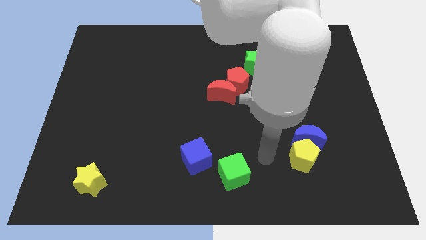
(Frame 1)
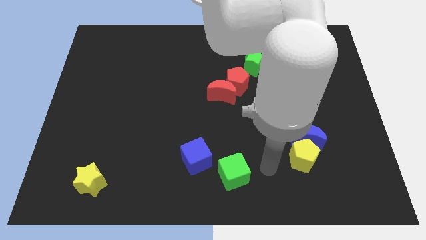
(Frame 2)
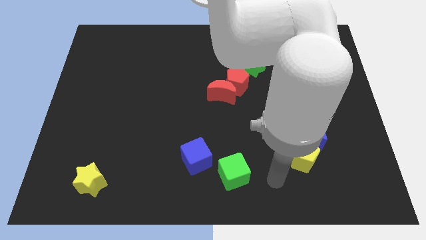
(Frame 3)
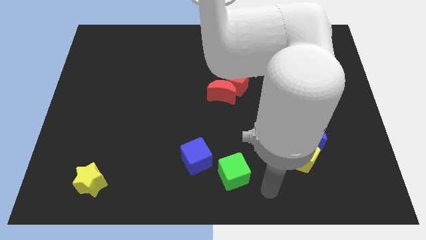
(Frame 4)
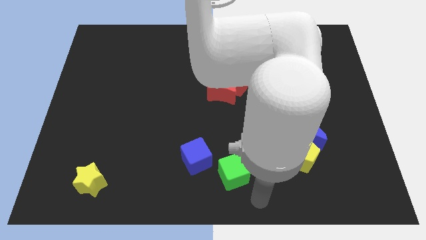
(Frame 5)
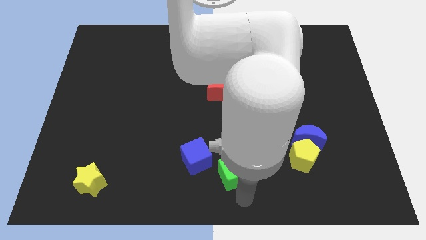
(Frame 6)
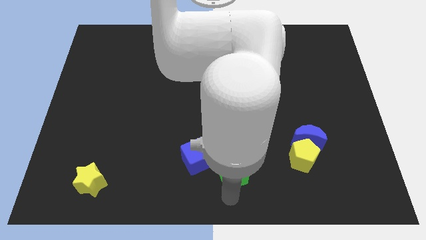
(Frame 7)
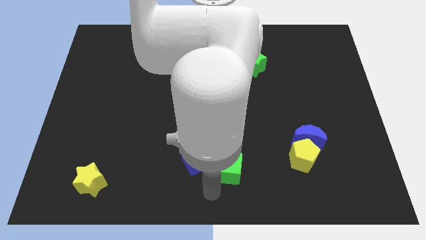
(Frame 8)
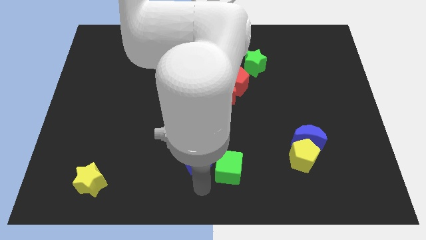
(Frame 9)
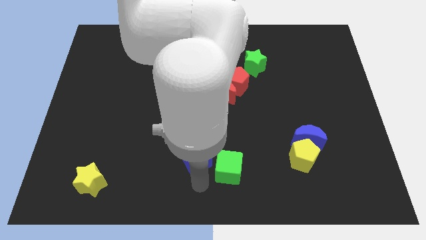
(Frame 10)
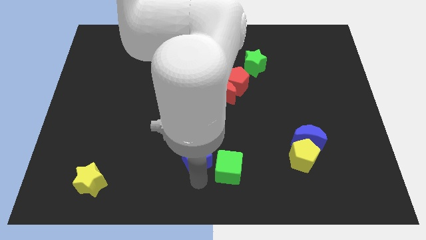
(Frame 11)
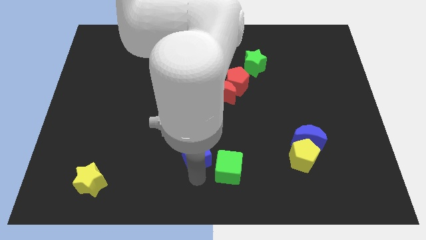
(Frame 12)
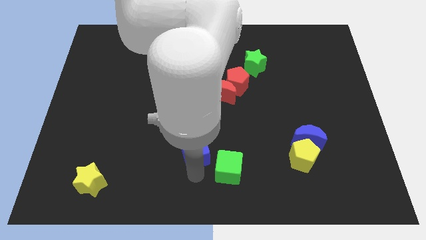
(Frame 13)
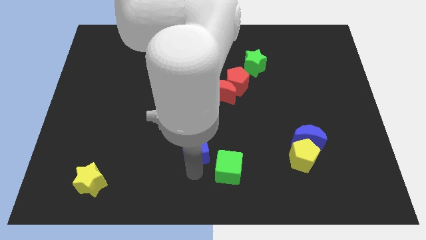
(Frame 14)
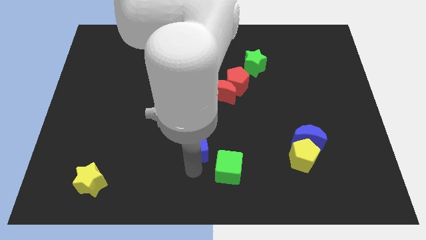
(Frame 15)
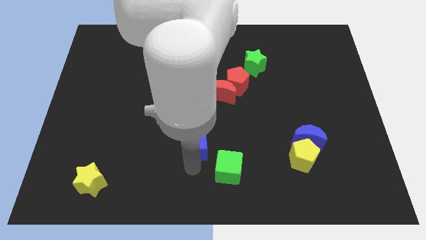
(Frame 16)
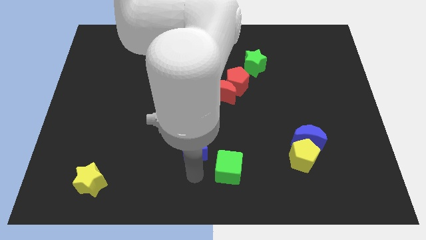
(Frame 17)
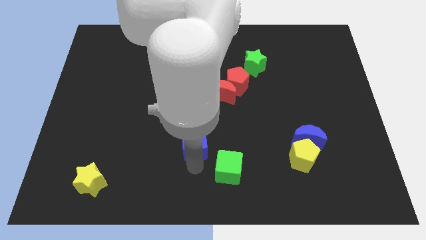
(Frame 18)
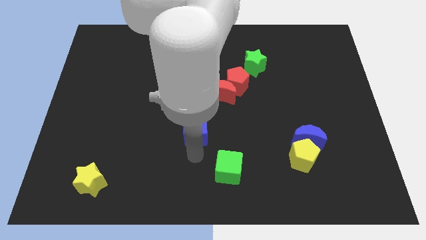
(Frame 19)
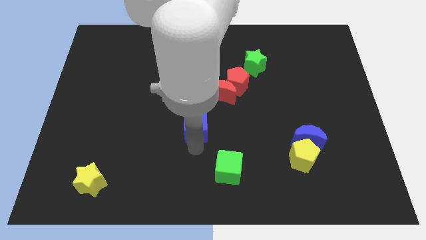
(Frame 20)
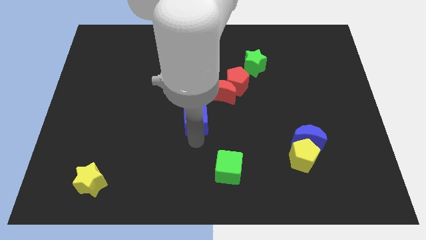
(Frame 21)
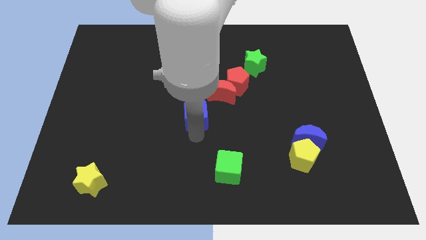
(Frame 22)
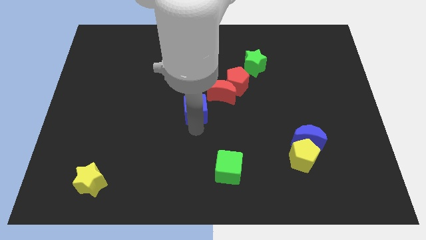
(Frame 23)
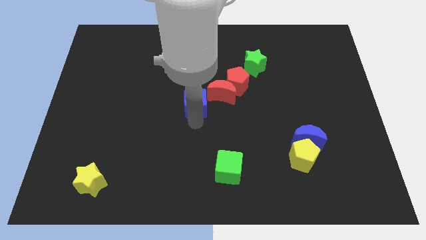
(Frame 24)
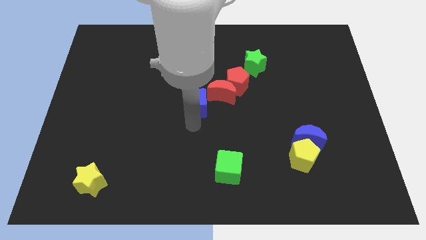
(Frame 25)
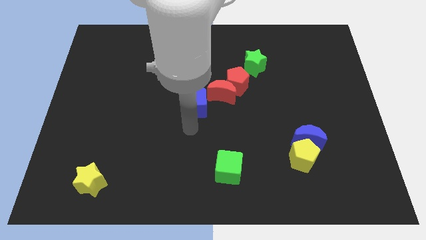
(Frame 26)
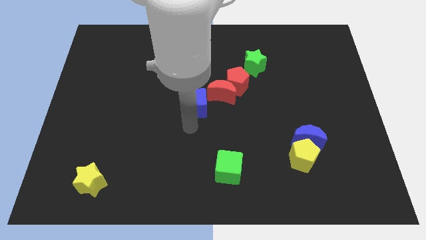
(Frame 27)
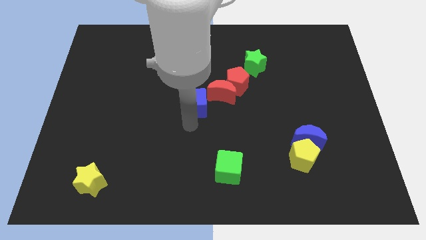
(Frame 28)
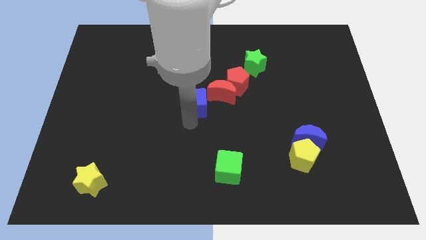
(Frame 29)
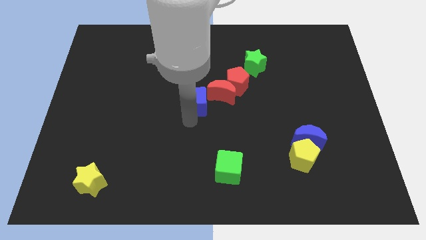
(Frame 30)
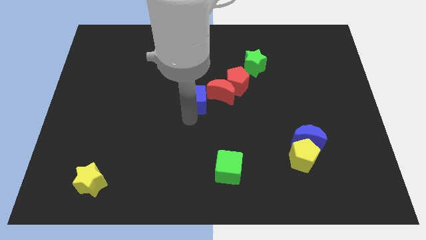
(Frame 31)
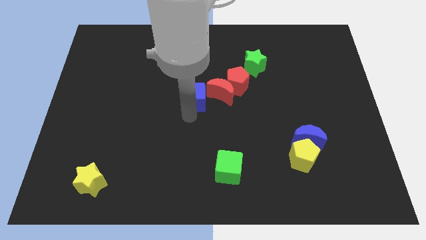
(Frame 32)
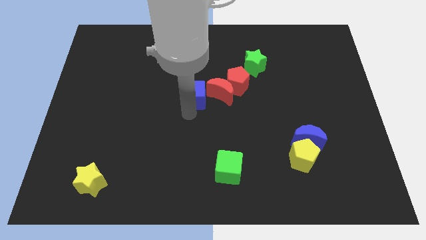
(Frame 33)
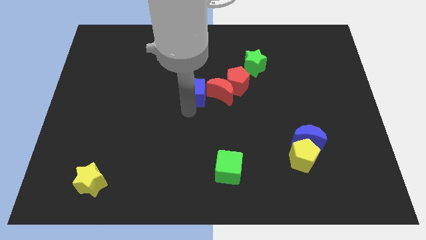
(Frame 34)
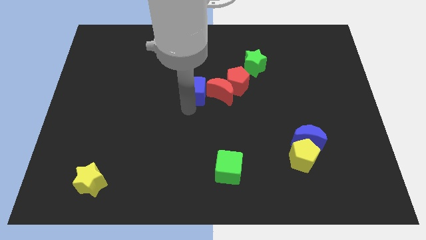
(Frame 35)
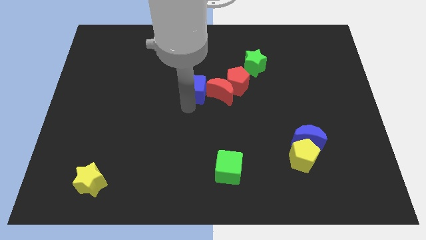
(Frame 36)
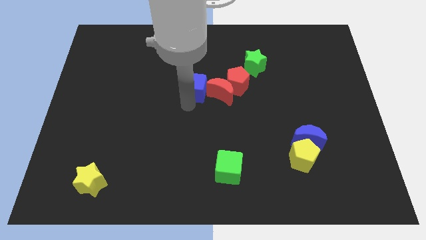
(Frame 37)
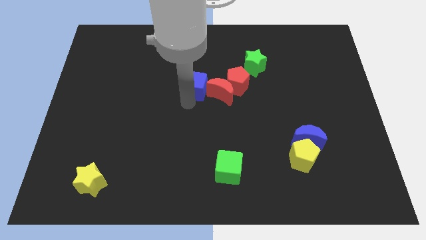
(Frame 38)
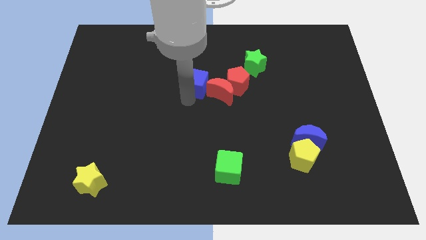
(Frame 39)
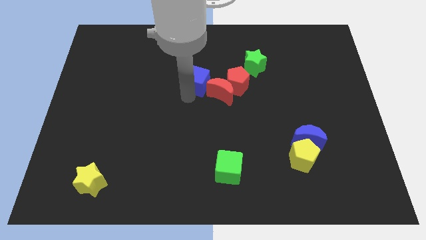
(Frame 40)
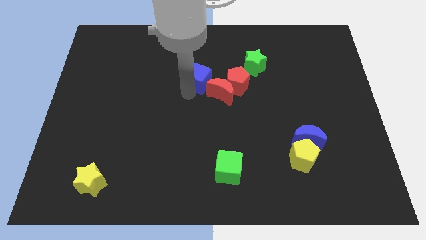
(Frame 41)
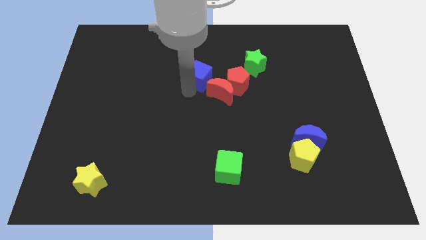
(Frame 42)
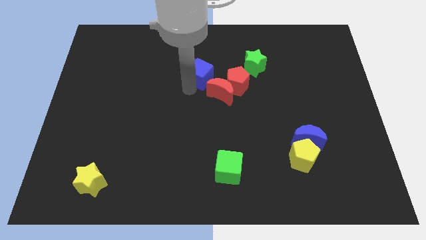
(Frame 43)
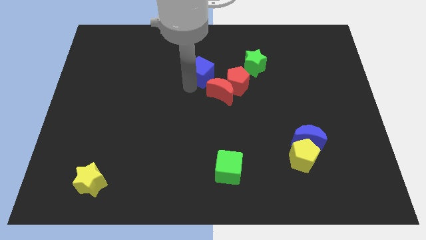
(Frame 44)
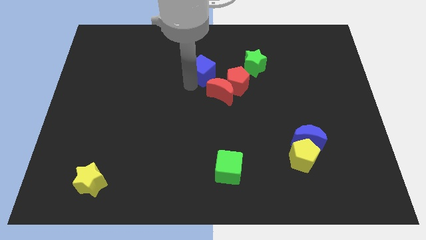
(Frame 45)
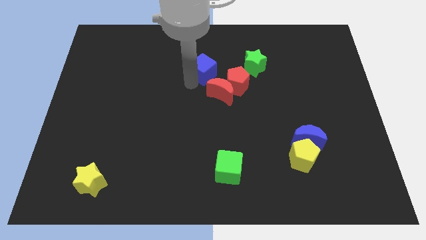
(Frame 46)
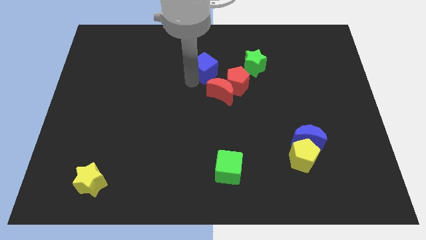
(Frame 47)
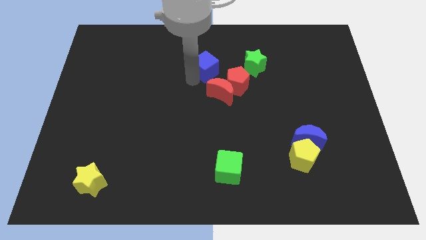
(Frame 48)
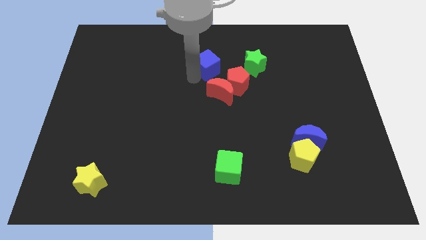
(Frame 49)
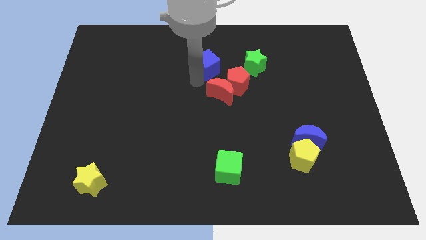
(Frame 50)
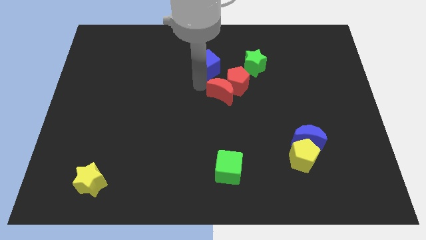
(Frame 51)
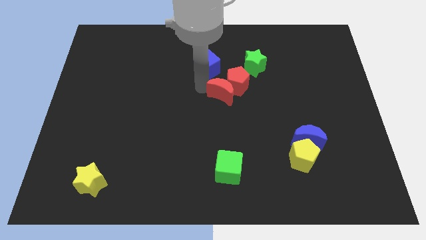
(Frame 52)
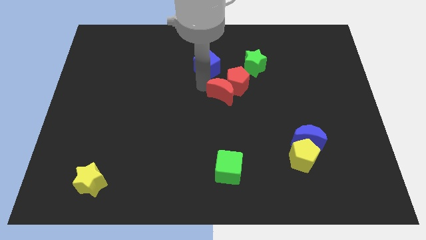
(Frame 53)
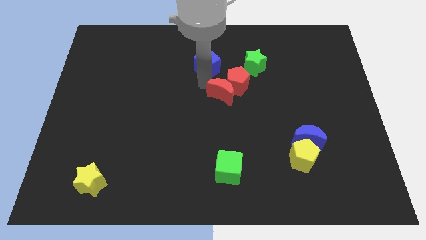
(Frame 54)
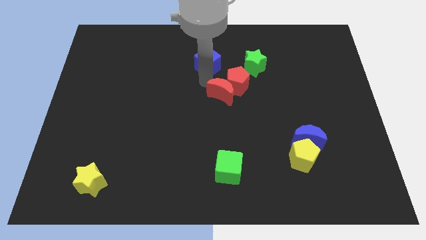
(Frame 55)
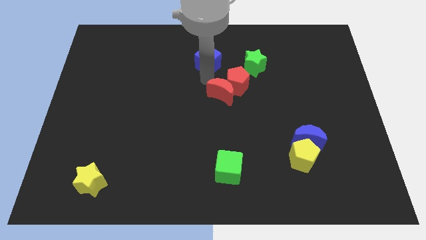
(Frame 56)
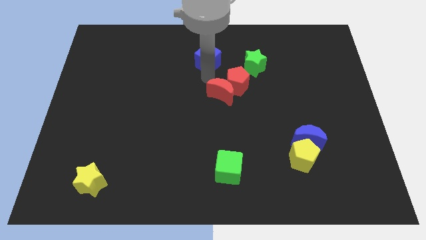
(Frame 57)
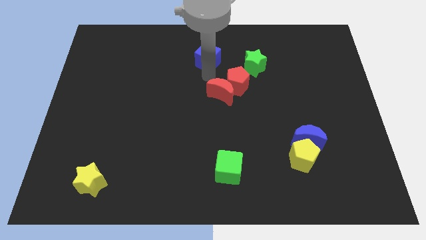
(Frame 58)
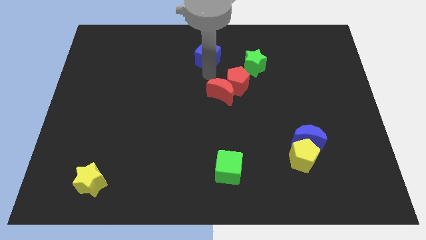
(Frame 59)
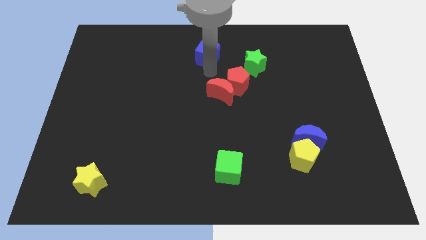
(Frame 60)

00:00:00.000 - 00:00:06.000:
put the blue cube to the top

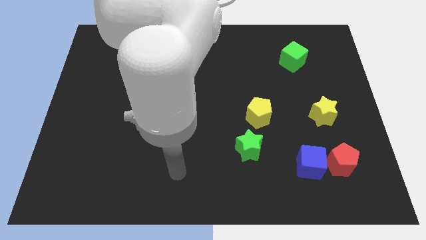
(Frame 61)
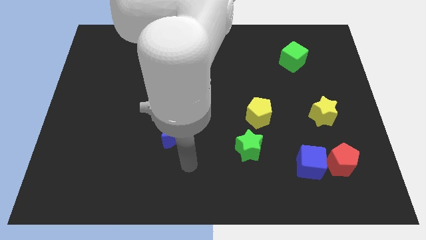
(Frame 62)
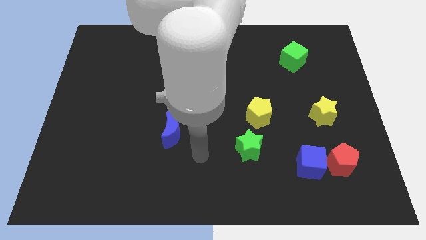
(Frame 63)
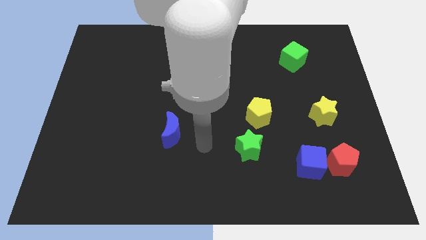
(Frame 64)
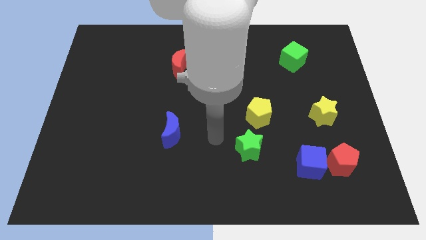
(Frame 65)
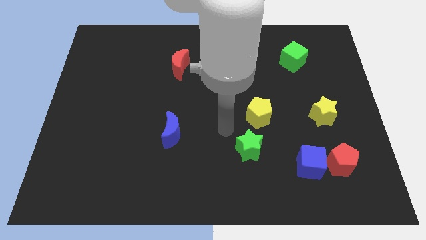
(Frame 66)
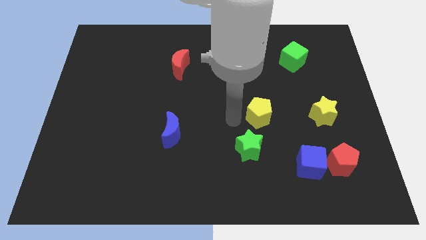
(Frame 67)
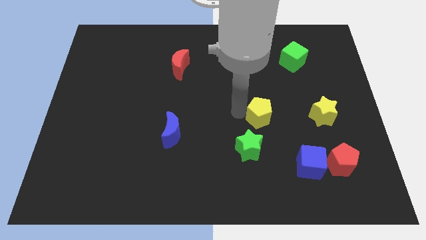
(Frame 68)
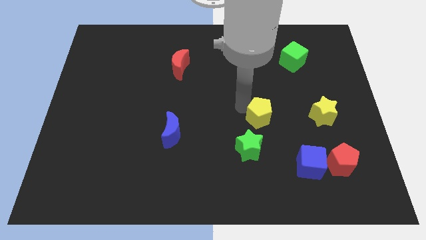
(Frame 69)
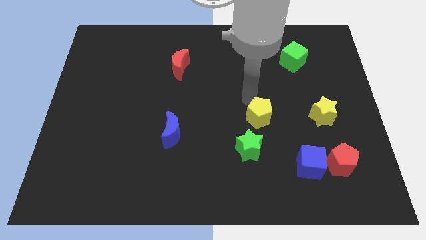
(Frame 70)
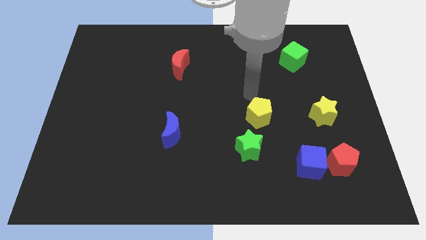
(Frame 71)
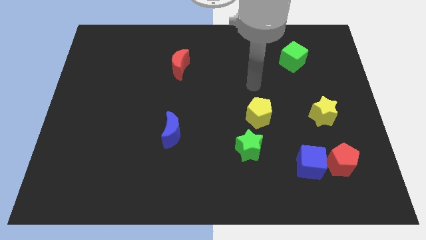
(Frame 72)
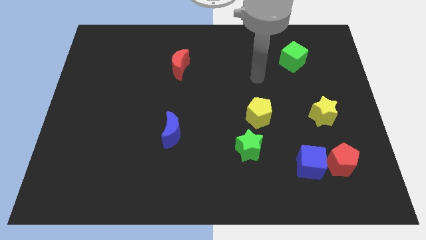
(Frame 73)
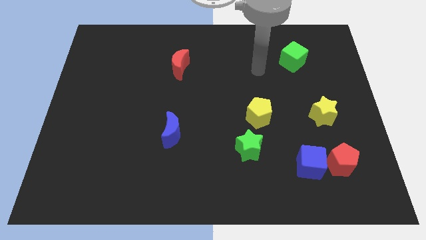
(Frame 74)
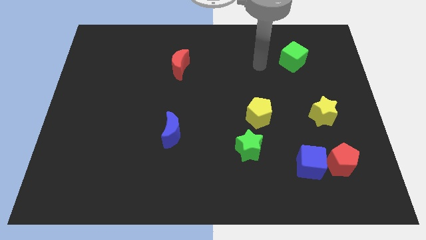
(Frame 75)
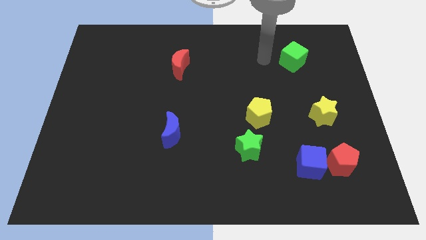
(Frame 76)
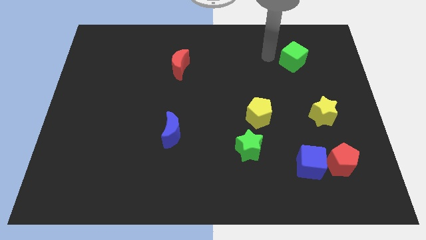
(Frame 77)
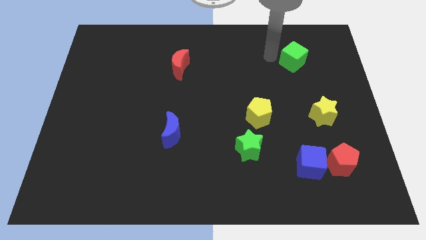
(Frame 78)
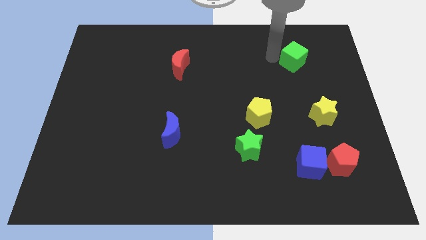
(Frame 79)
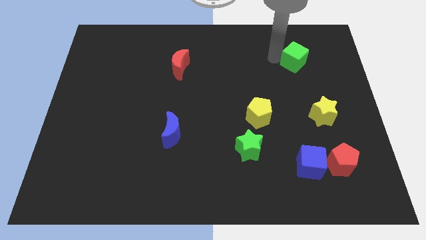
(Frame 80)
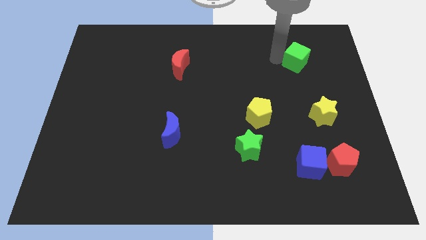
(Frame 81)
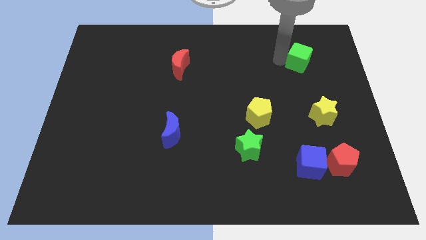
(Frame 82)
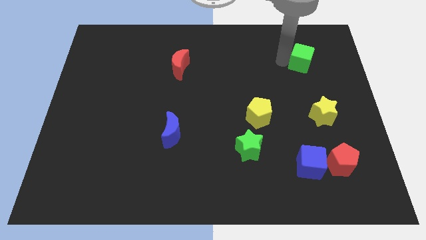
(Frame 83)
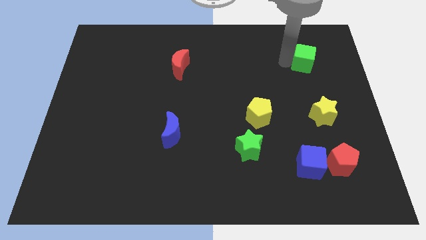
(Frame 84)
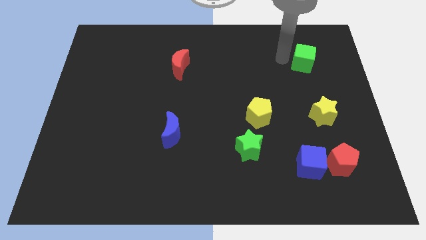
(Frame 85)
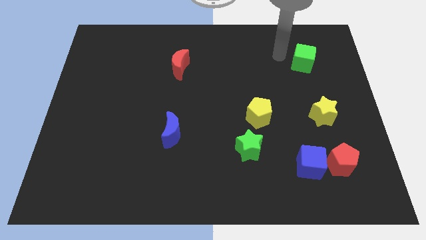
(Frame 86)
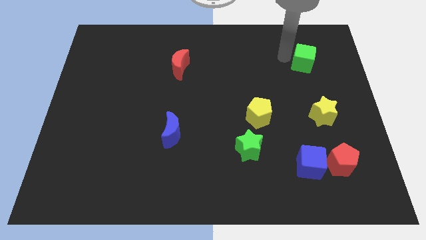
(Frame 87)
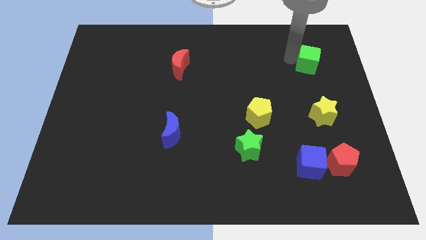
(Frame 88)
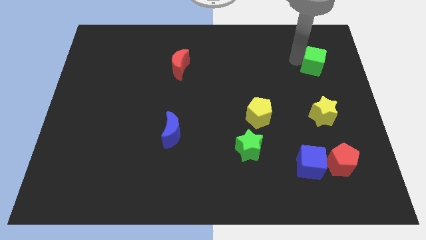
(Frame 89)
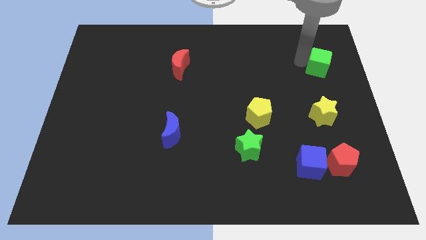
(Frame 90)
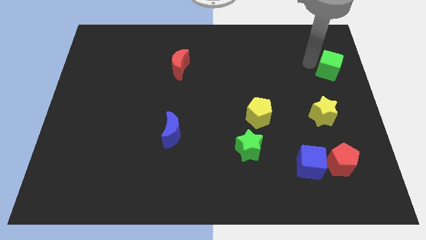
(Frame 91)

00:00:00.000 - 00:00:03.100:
put the green cube to the right side
